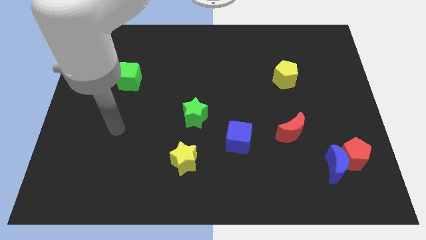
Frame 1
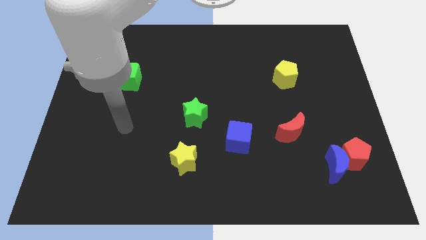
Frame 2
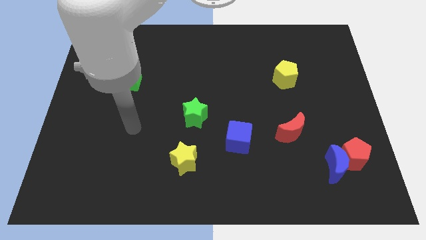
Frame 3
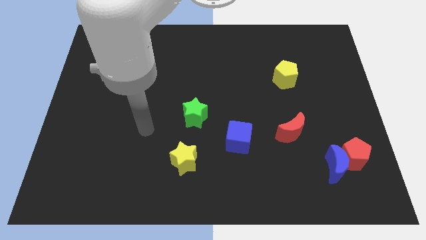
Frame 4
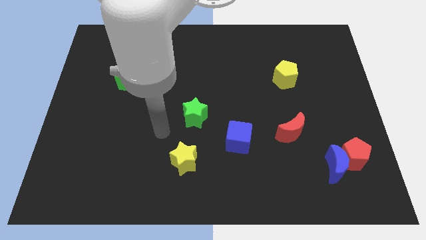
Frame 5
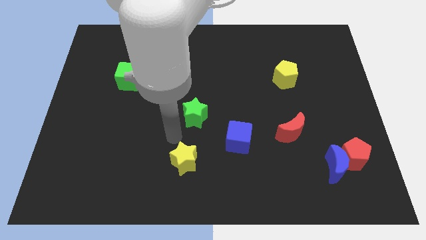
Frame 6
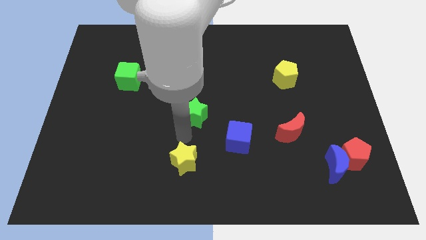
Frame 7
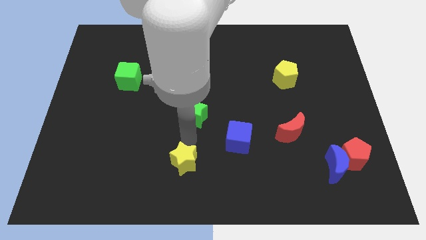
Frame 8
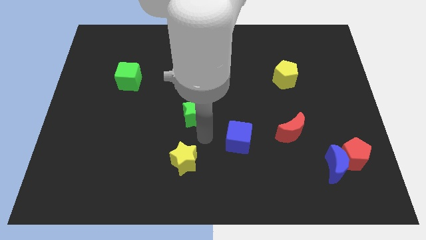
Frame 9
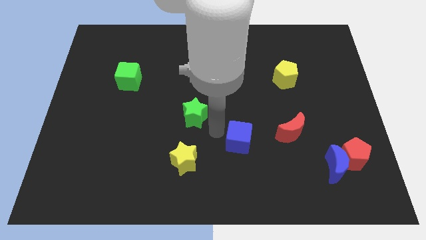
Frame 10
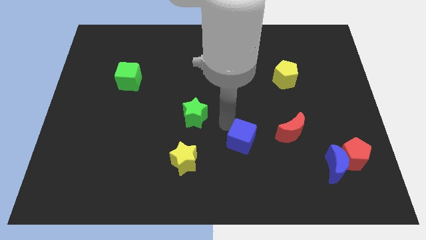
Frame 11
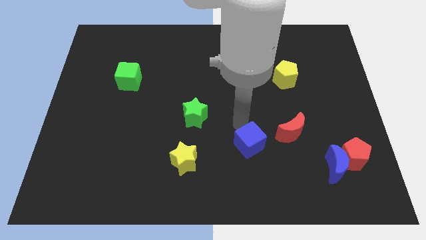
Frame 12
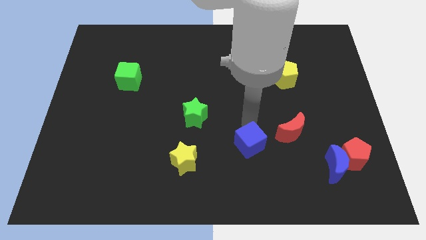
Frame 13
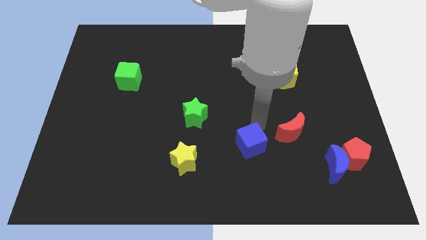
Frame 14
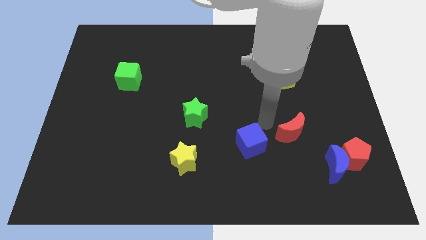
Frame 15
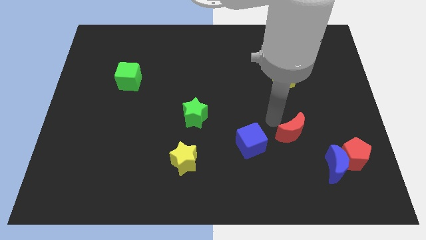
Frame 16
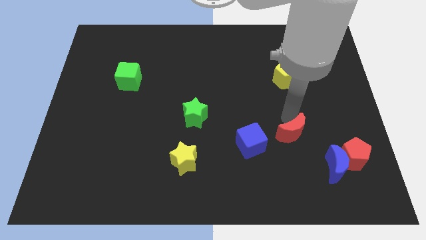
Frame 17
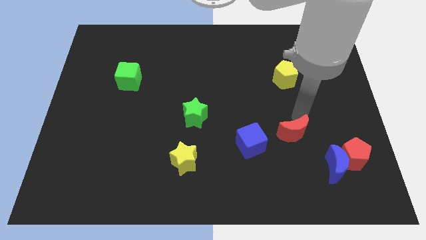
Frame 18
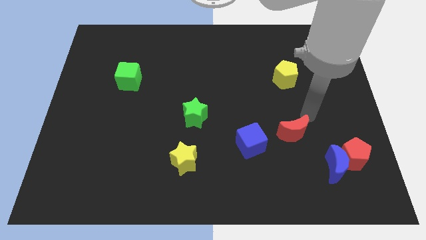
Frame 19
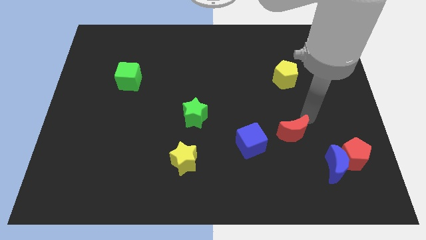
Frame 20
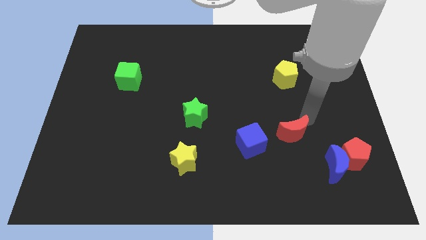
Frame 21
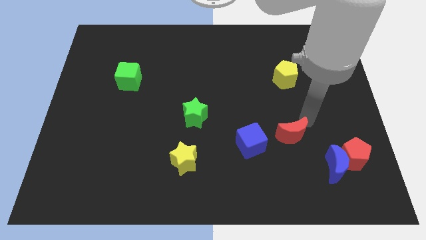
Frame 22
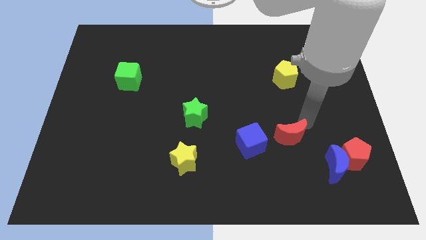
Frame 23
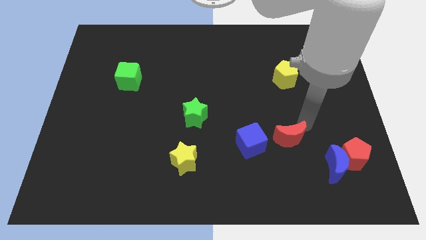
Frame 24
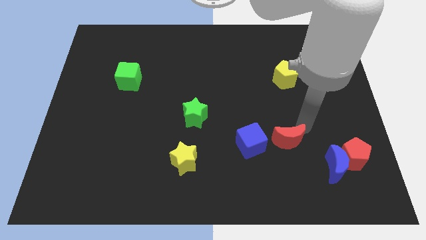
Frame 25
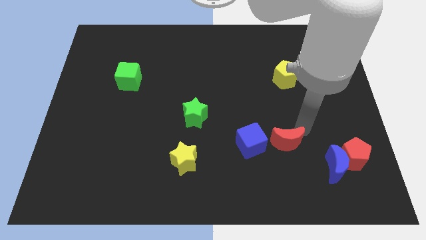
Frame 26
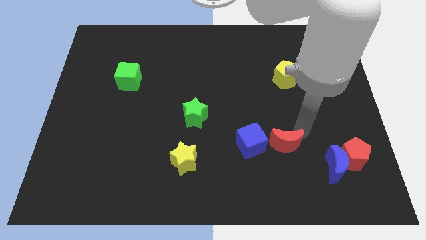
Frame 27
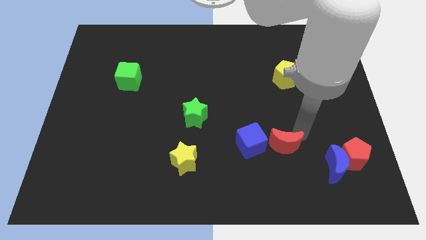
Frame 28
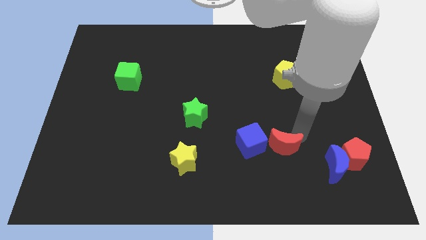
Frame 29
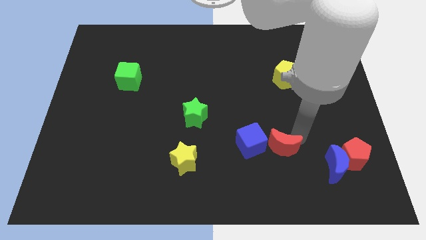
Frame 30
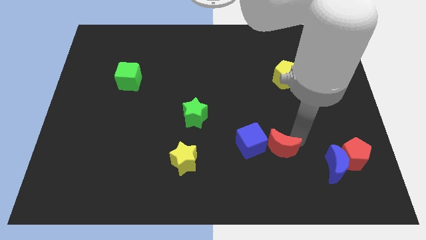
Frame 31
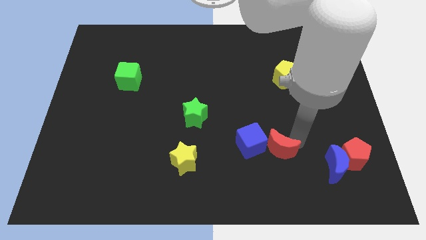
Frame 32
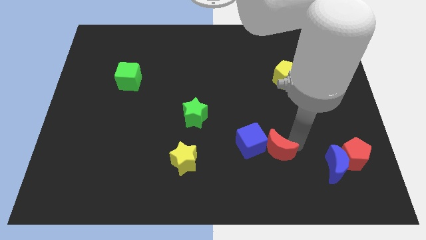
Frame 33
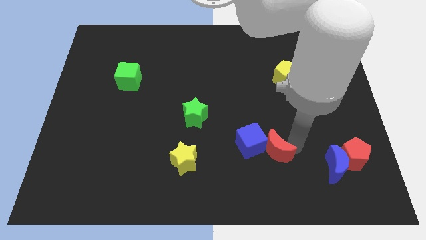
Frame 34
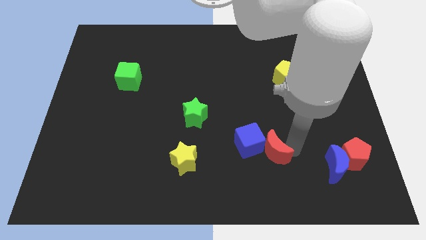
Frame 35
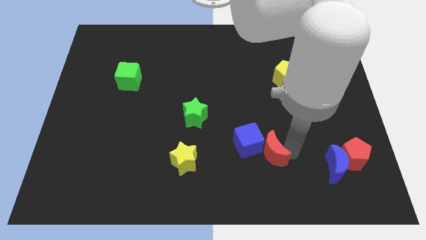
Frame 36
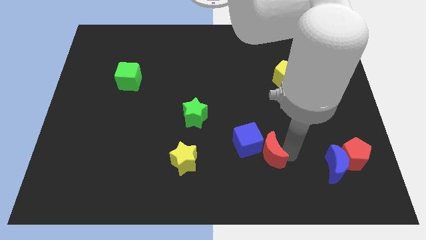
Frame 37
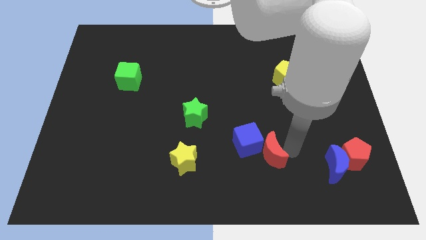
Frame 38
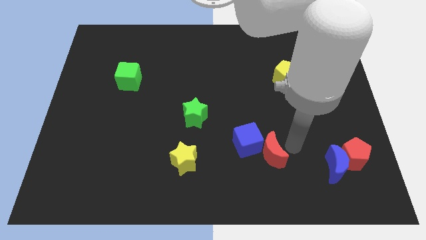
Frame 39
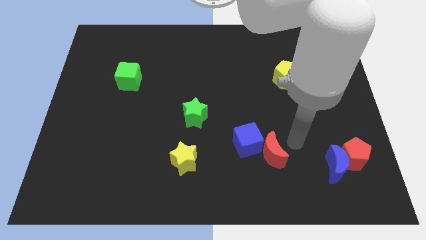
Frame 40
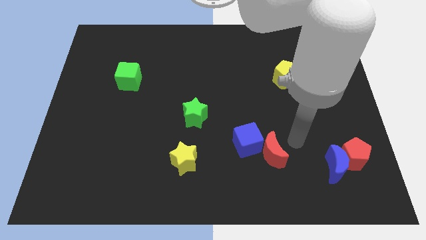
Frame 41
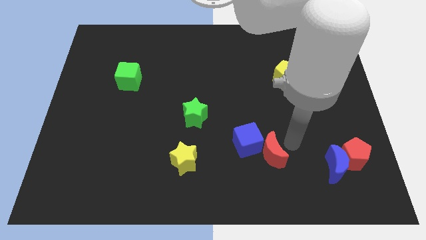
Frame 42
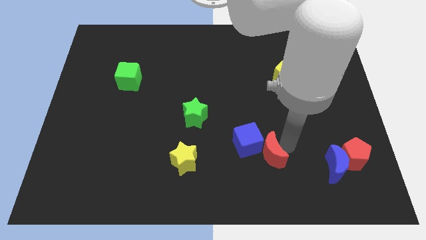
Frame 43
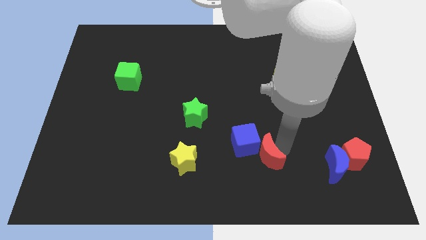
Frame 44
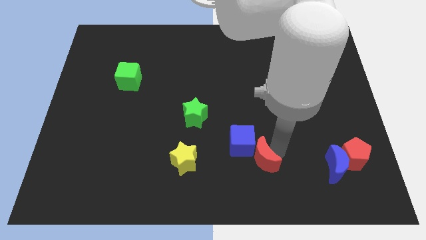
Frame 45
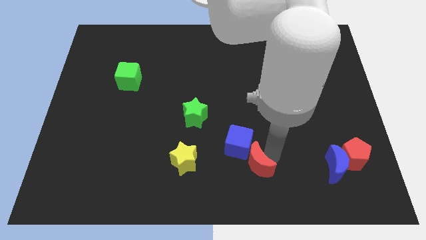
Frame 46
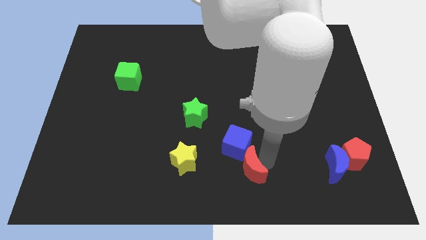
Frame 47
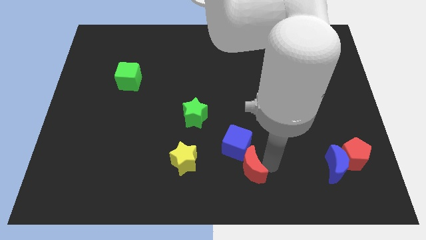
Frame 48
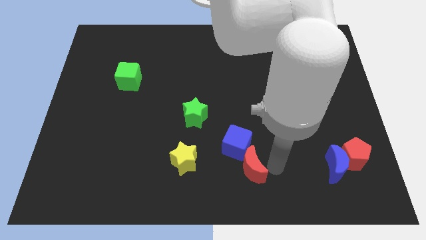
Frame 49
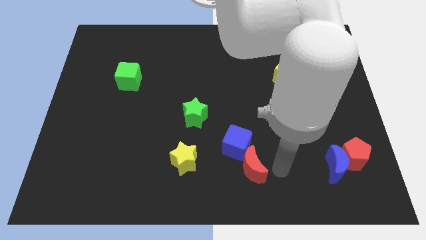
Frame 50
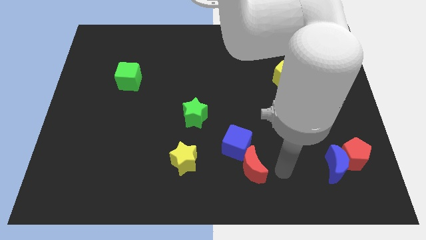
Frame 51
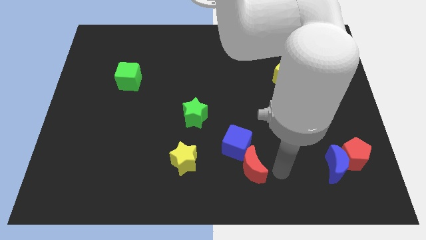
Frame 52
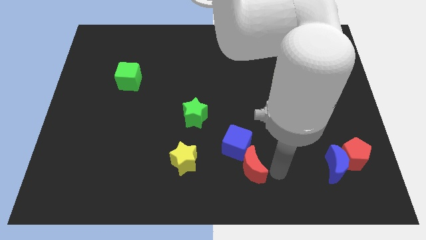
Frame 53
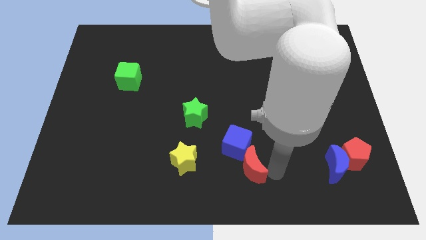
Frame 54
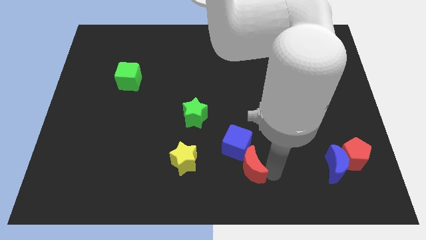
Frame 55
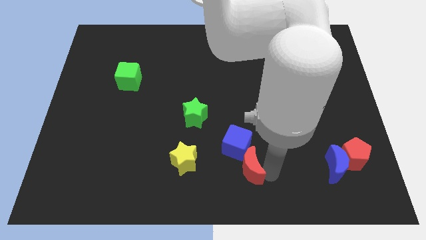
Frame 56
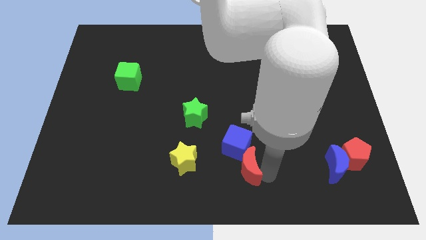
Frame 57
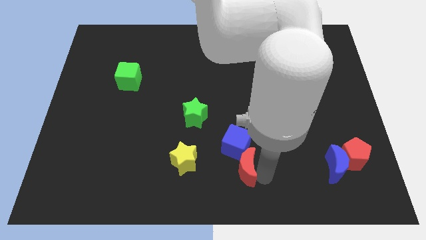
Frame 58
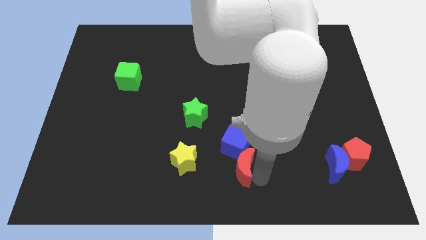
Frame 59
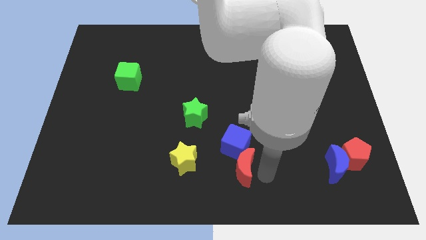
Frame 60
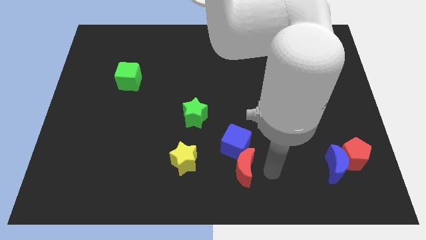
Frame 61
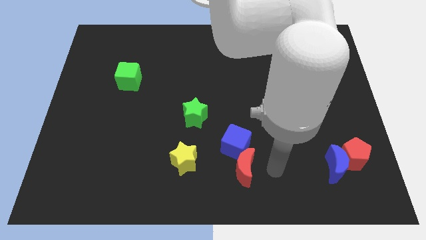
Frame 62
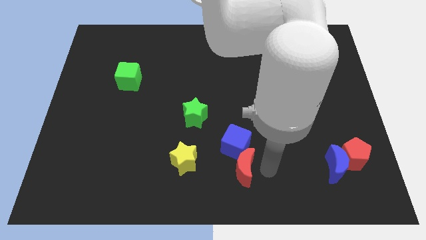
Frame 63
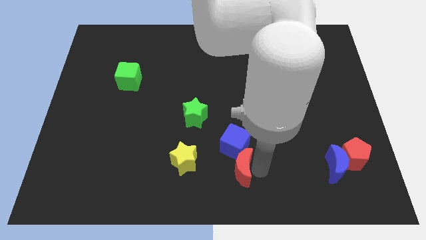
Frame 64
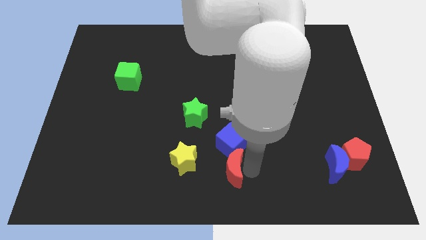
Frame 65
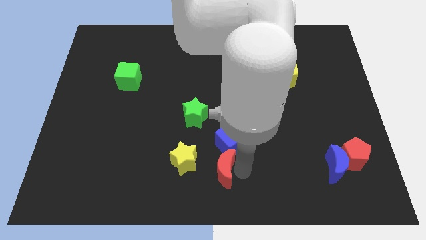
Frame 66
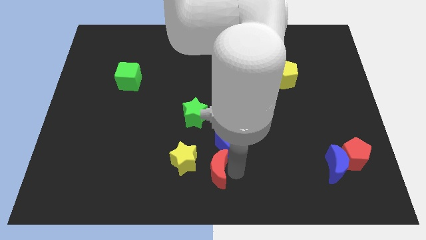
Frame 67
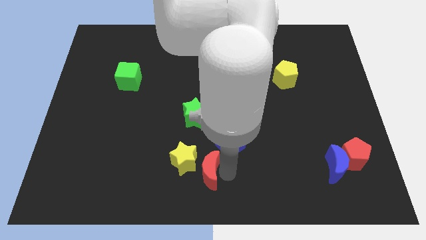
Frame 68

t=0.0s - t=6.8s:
slide the red moon to the yellow star
